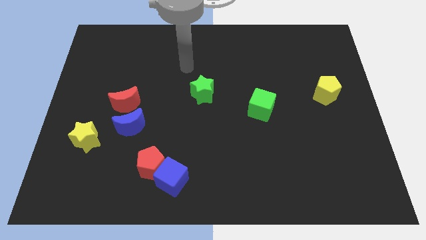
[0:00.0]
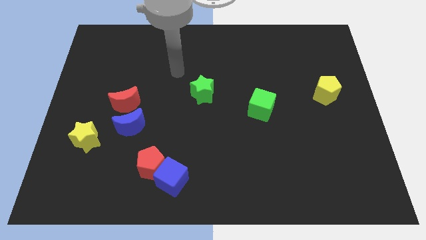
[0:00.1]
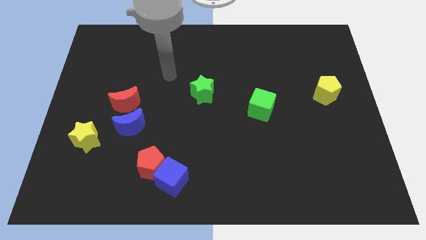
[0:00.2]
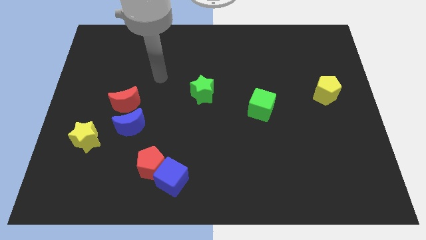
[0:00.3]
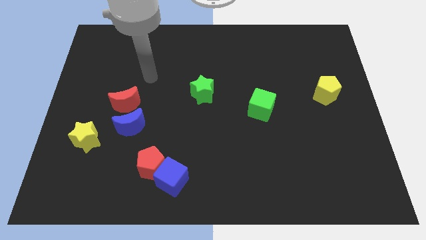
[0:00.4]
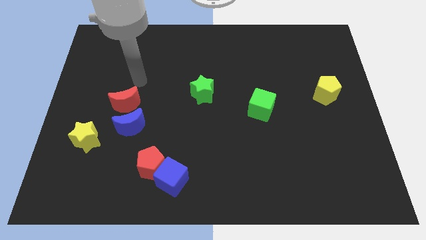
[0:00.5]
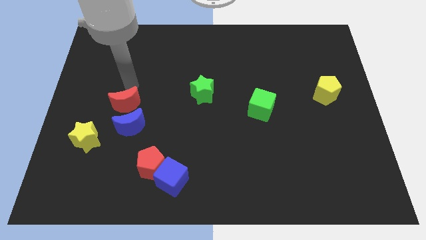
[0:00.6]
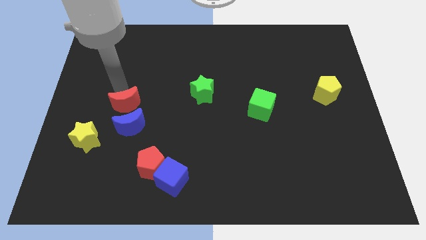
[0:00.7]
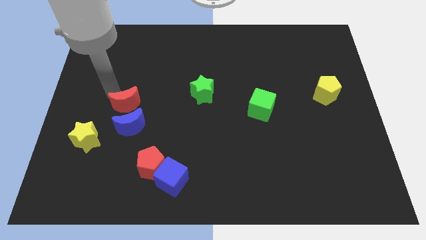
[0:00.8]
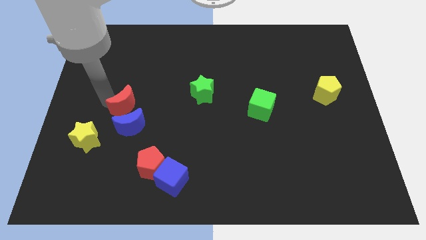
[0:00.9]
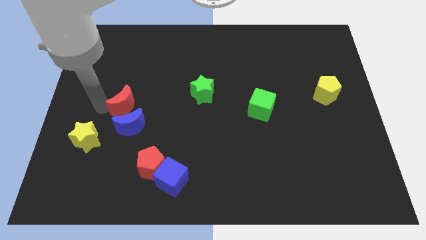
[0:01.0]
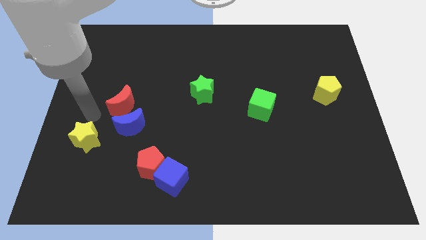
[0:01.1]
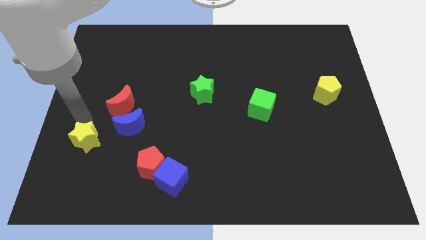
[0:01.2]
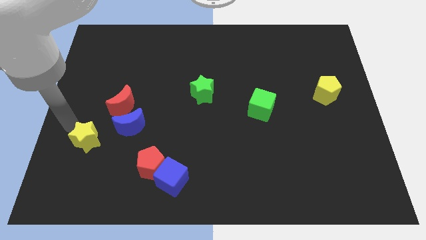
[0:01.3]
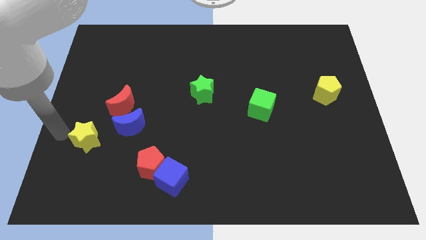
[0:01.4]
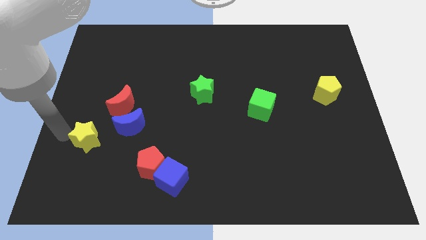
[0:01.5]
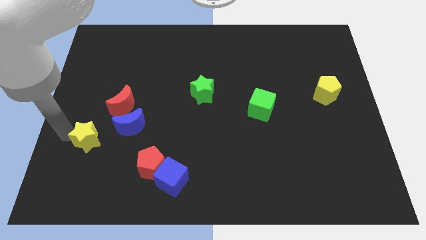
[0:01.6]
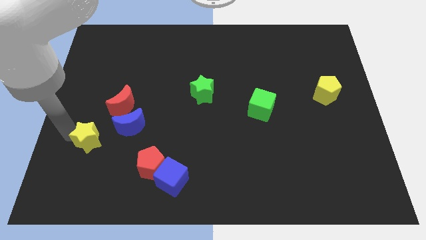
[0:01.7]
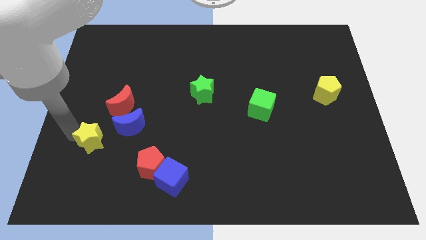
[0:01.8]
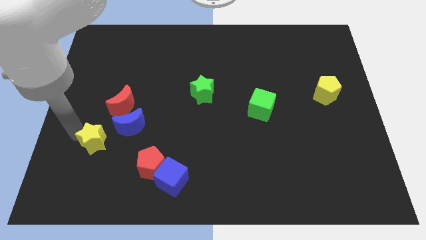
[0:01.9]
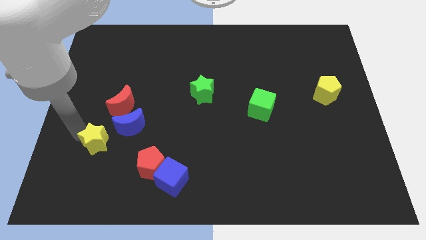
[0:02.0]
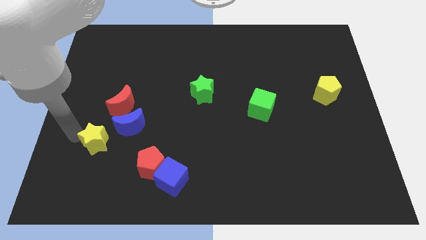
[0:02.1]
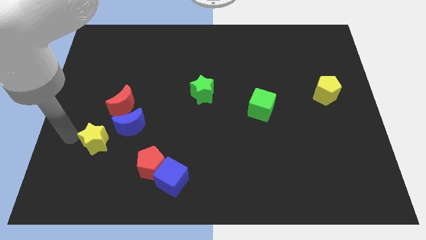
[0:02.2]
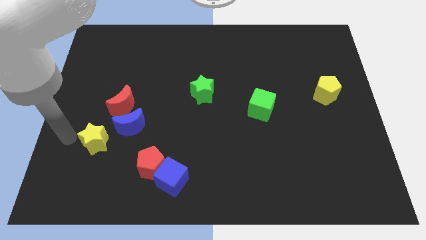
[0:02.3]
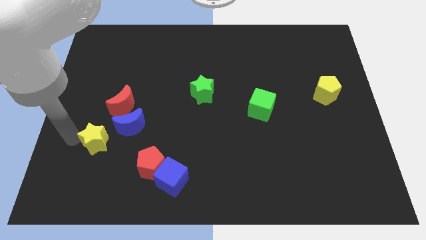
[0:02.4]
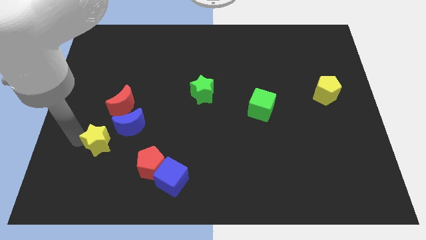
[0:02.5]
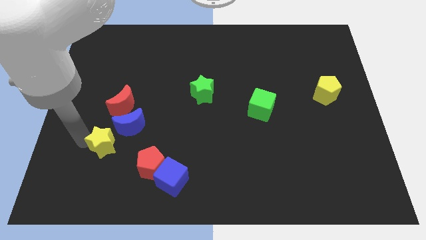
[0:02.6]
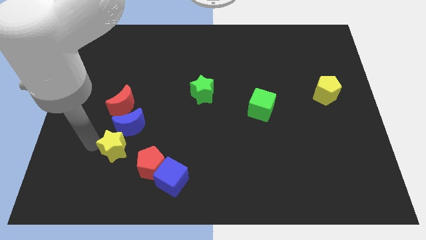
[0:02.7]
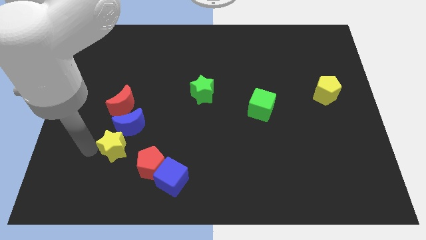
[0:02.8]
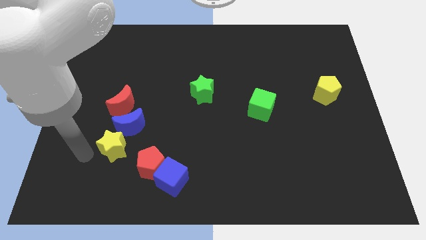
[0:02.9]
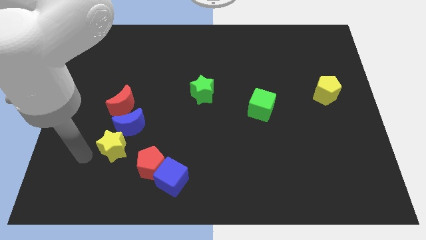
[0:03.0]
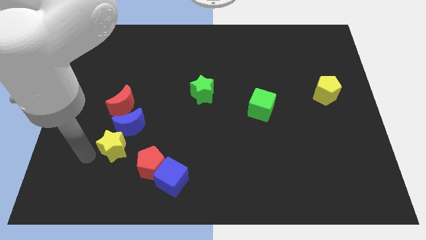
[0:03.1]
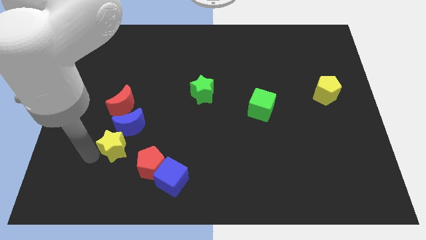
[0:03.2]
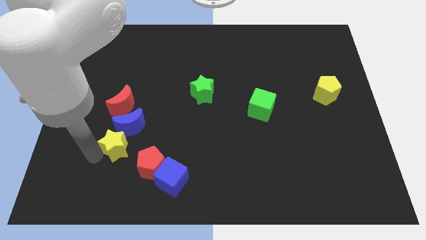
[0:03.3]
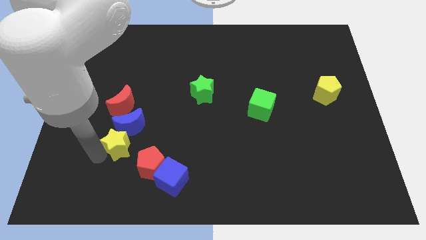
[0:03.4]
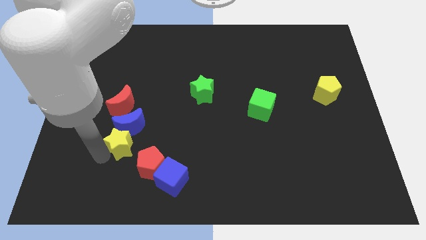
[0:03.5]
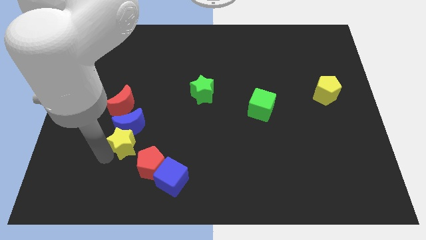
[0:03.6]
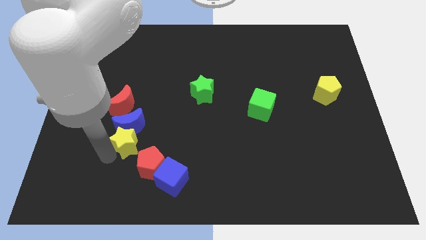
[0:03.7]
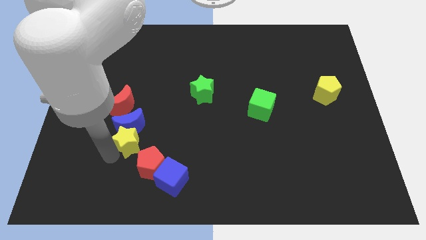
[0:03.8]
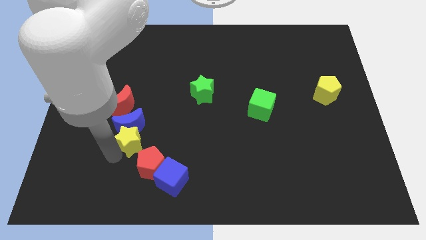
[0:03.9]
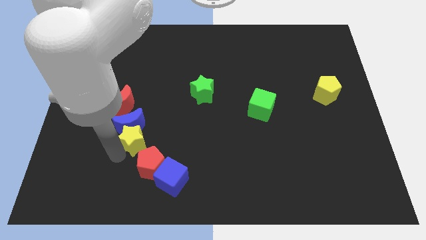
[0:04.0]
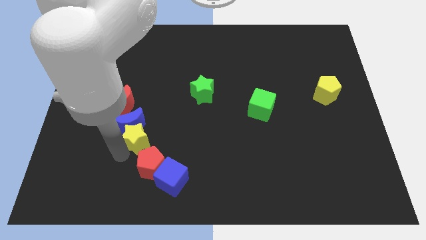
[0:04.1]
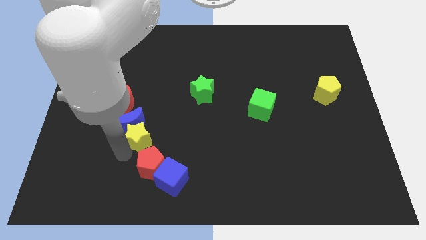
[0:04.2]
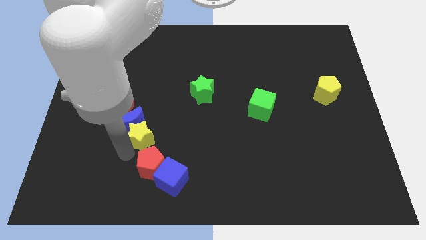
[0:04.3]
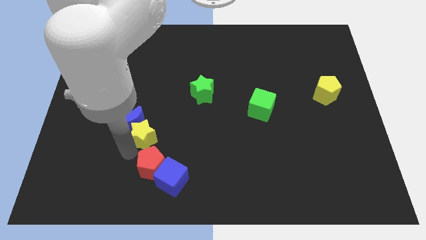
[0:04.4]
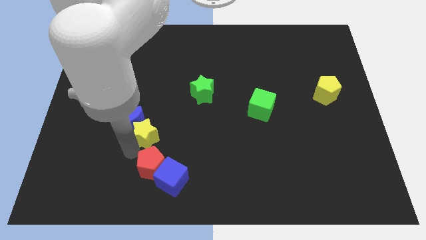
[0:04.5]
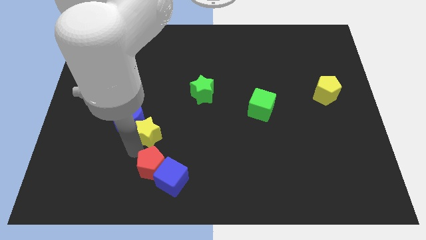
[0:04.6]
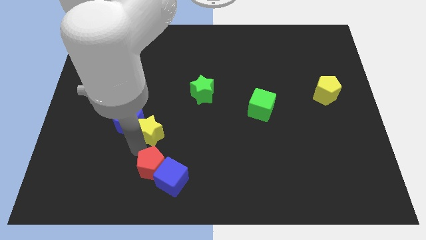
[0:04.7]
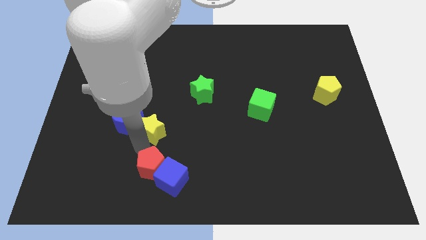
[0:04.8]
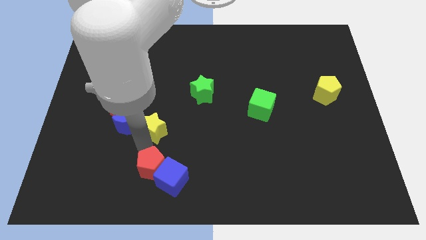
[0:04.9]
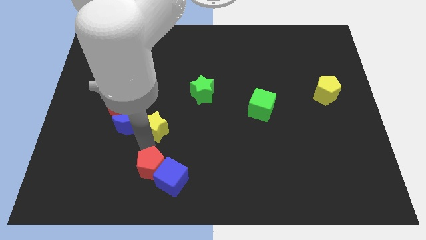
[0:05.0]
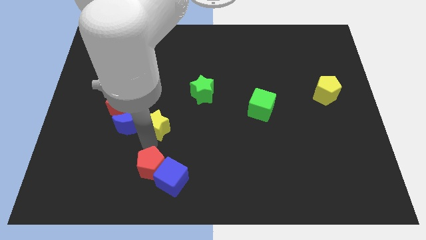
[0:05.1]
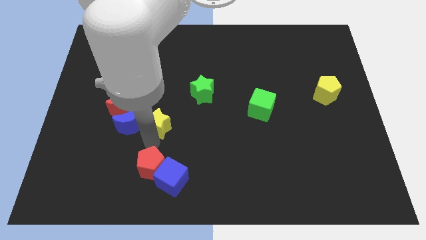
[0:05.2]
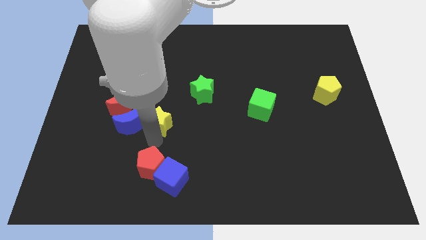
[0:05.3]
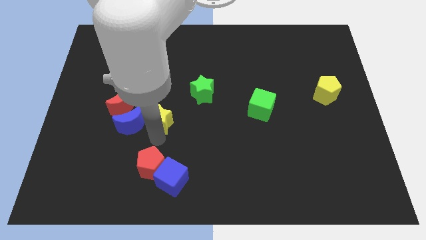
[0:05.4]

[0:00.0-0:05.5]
put the yellow star diagonally down and to the left of the green star

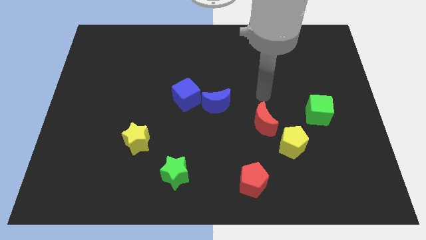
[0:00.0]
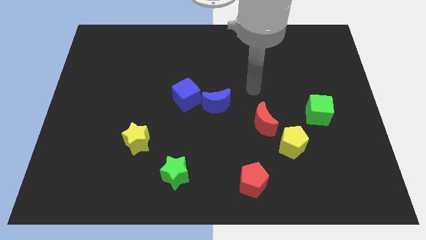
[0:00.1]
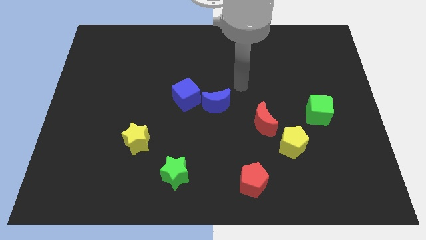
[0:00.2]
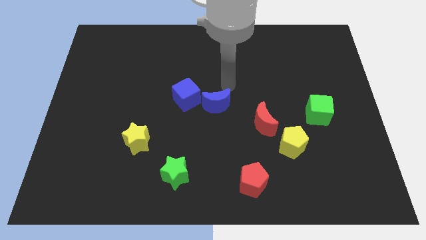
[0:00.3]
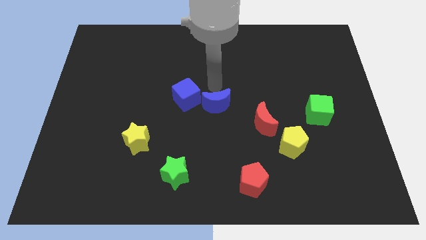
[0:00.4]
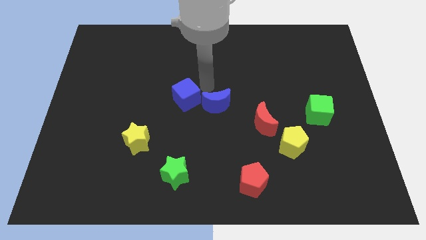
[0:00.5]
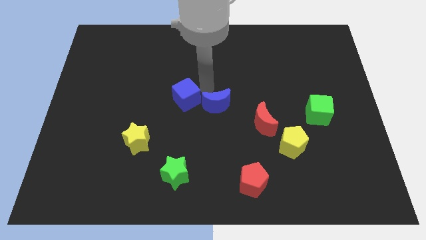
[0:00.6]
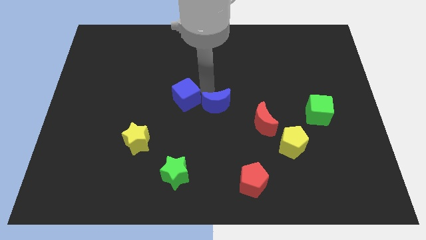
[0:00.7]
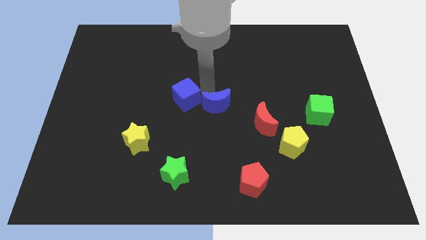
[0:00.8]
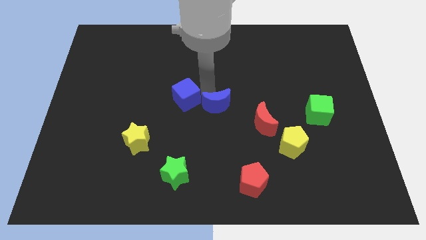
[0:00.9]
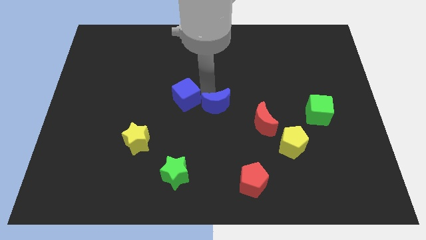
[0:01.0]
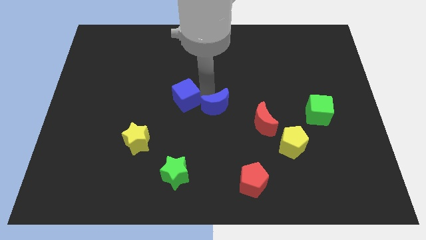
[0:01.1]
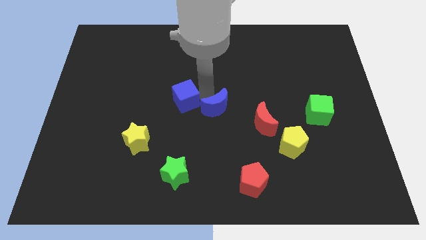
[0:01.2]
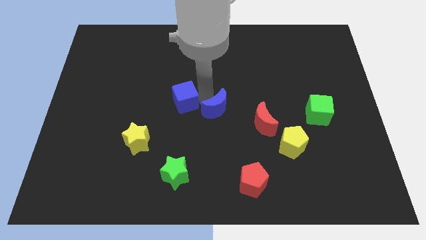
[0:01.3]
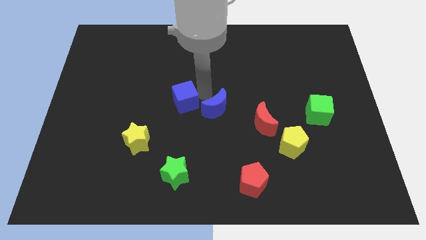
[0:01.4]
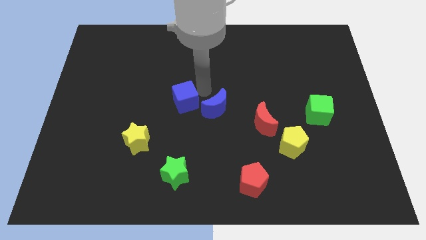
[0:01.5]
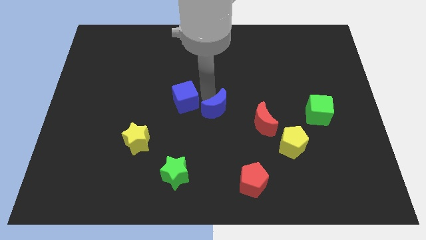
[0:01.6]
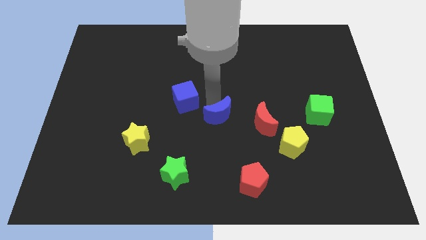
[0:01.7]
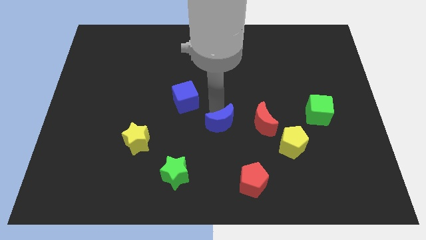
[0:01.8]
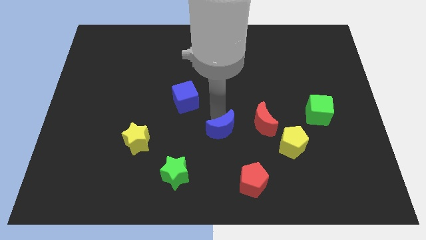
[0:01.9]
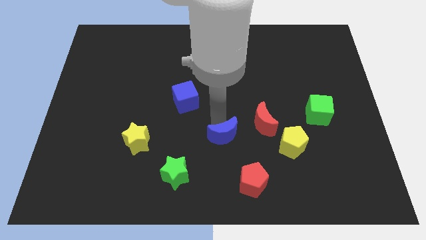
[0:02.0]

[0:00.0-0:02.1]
move the blue moon to the bottom left of the red moon
